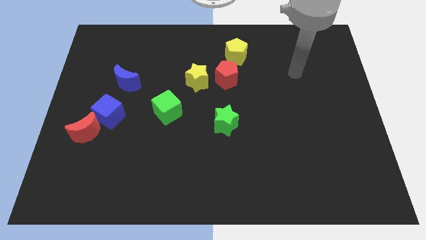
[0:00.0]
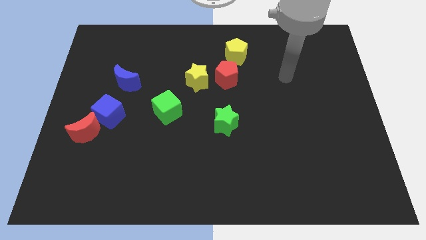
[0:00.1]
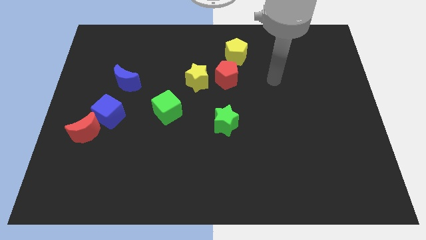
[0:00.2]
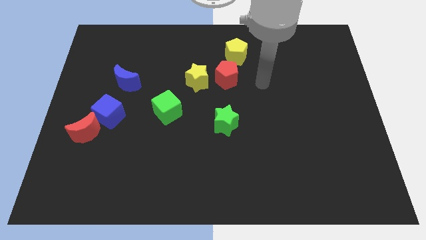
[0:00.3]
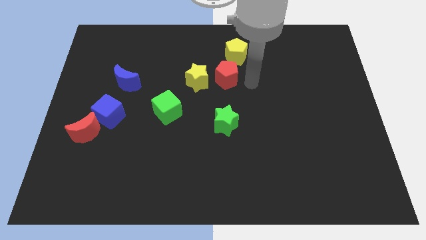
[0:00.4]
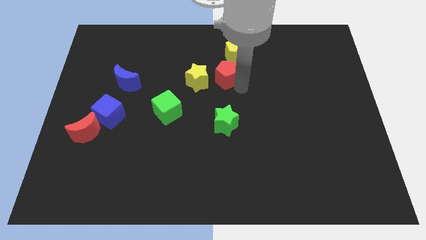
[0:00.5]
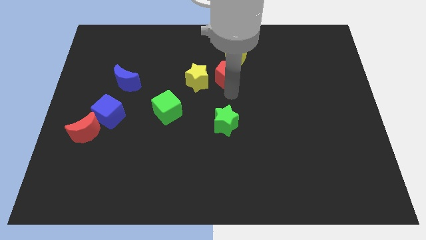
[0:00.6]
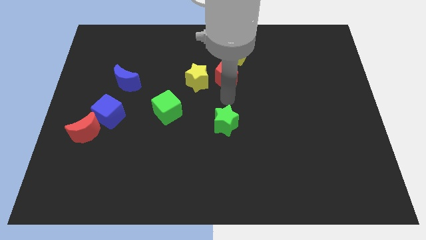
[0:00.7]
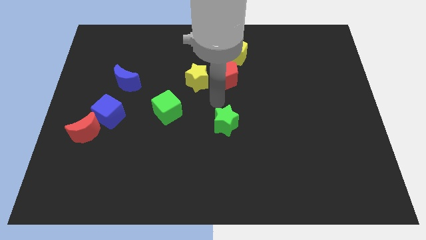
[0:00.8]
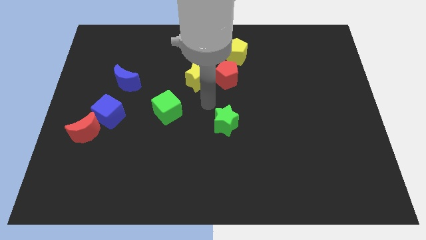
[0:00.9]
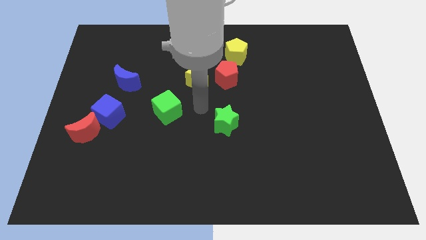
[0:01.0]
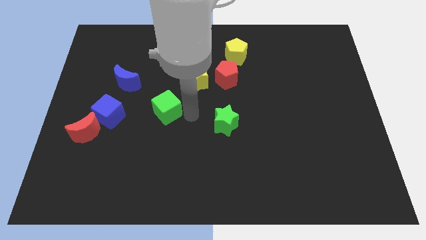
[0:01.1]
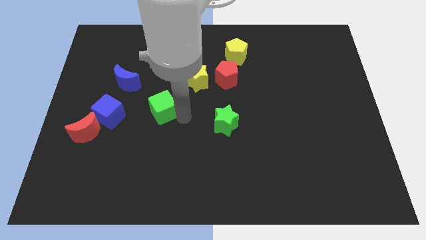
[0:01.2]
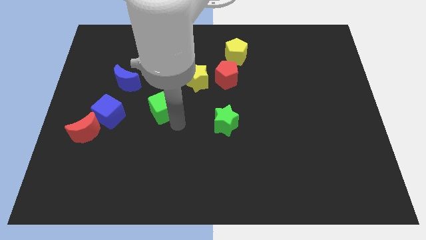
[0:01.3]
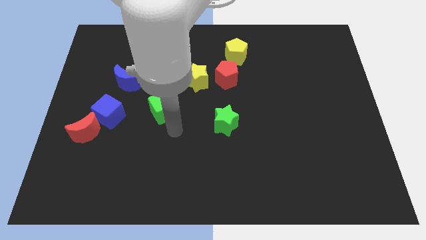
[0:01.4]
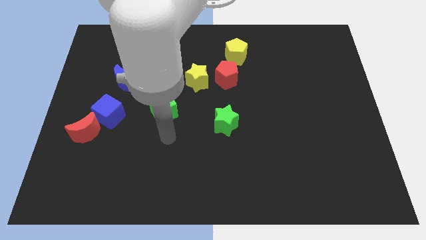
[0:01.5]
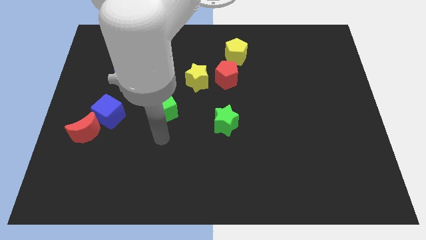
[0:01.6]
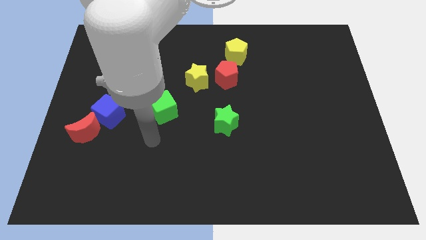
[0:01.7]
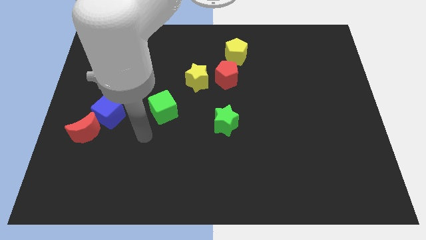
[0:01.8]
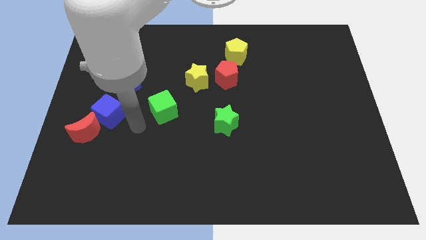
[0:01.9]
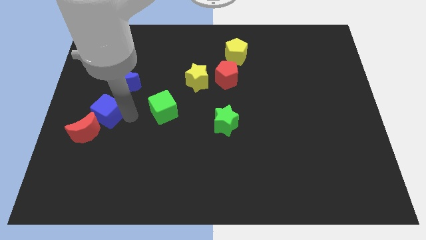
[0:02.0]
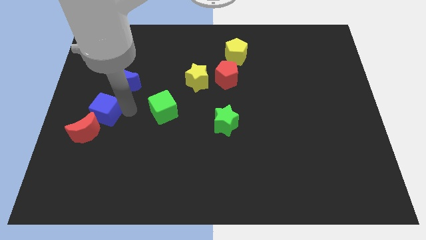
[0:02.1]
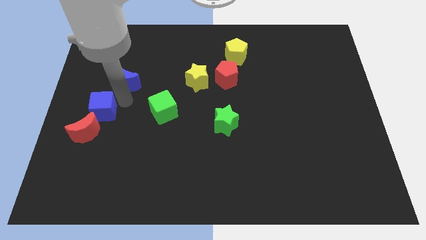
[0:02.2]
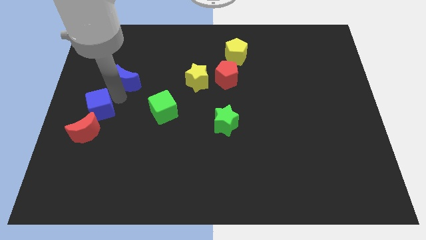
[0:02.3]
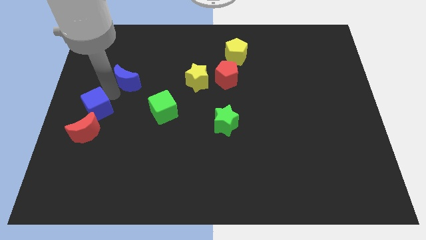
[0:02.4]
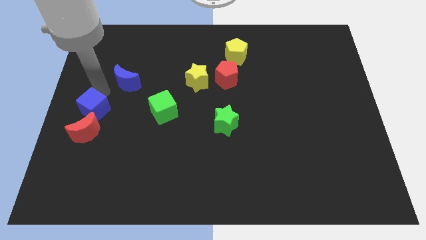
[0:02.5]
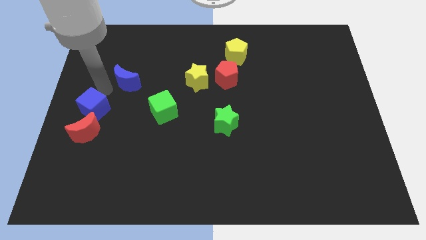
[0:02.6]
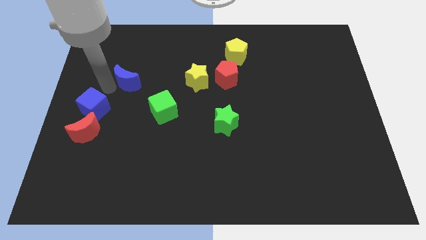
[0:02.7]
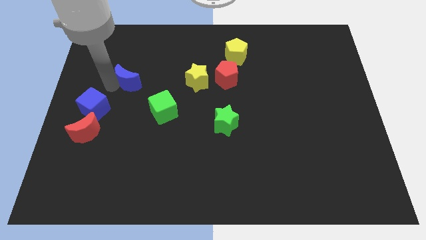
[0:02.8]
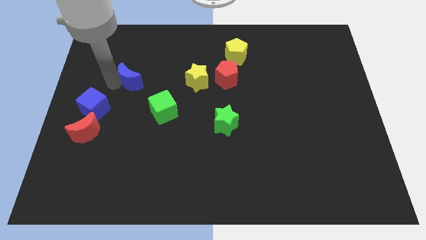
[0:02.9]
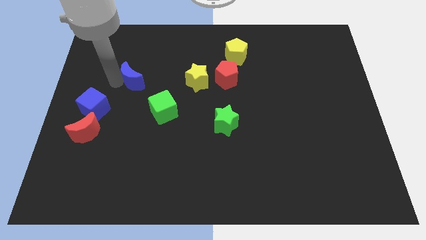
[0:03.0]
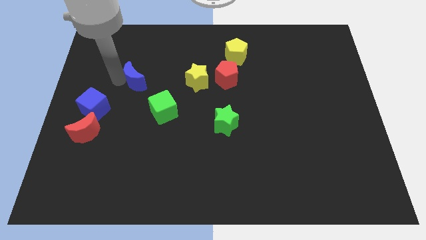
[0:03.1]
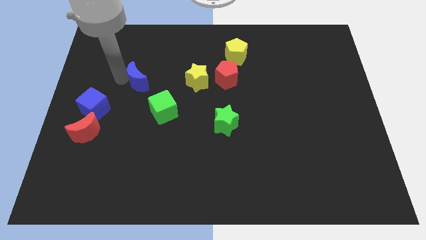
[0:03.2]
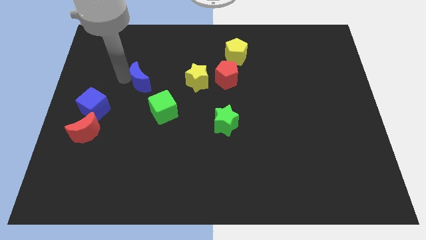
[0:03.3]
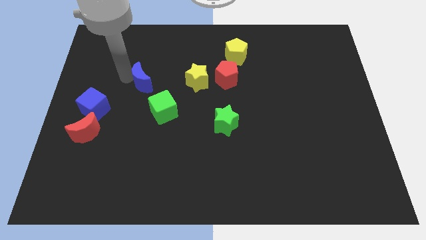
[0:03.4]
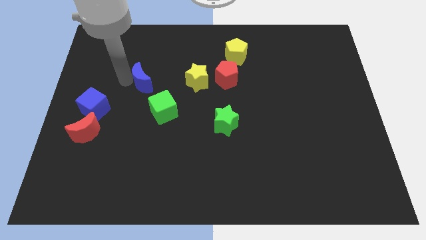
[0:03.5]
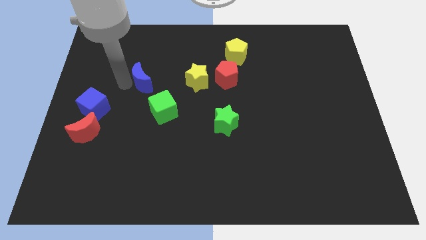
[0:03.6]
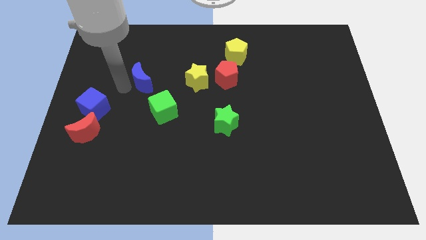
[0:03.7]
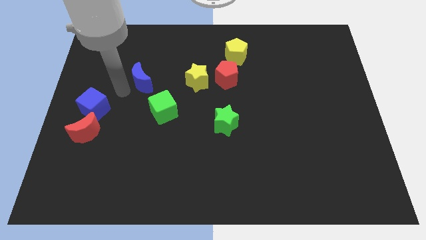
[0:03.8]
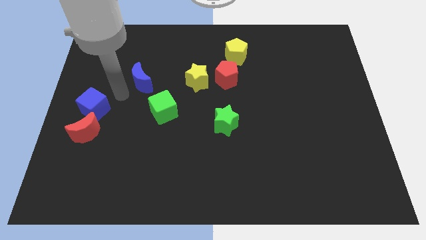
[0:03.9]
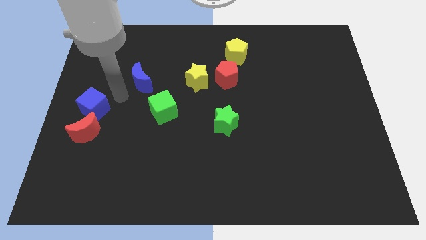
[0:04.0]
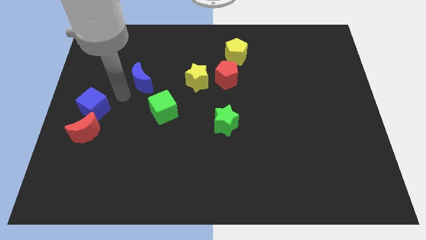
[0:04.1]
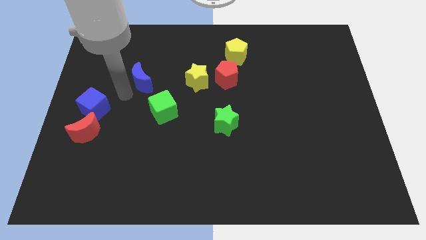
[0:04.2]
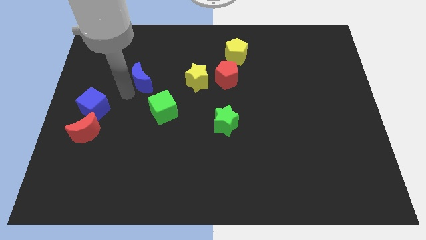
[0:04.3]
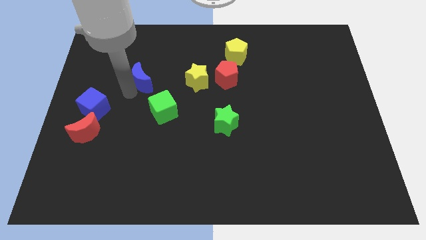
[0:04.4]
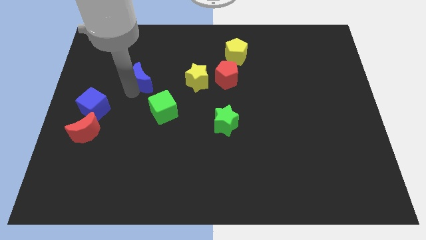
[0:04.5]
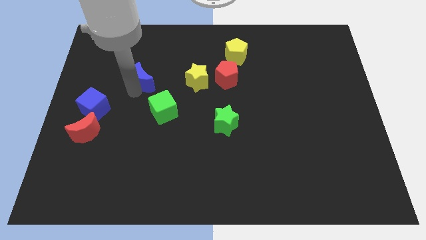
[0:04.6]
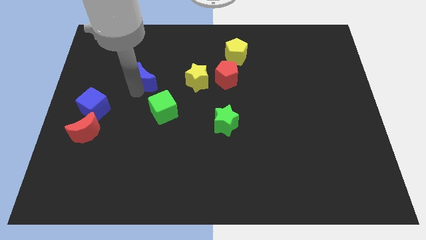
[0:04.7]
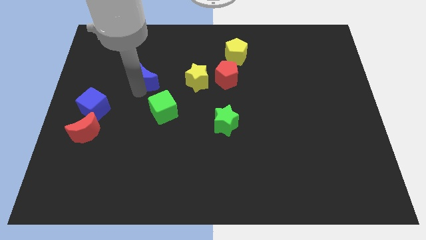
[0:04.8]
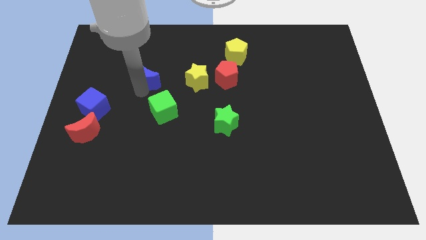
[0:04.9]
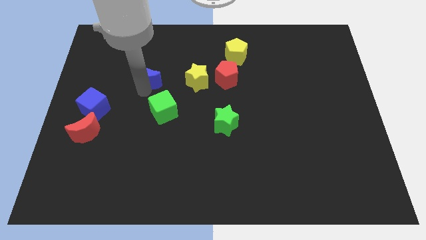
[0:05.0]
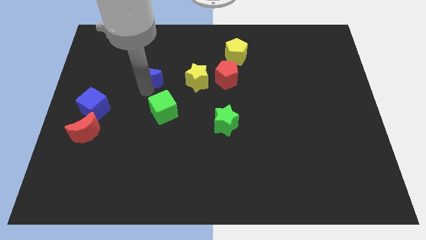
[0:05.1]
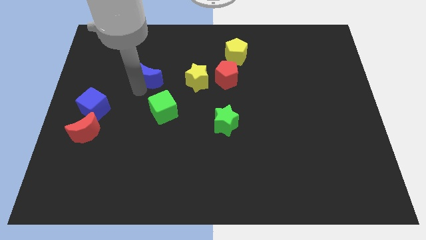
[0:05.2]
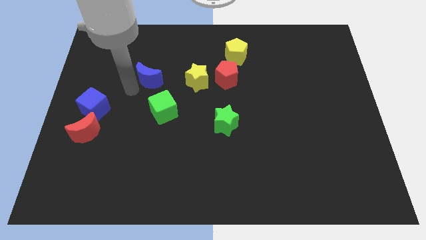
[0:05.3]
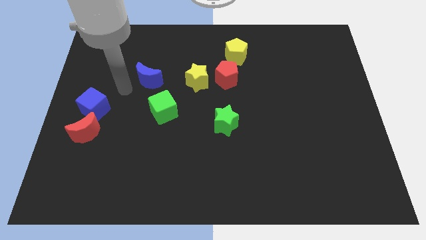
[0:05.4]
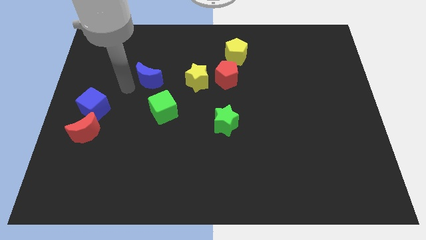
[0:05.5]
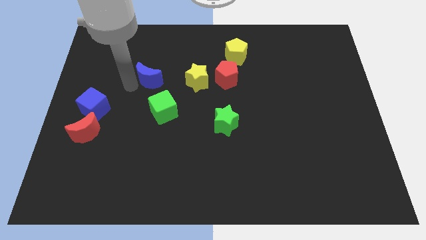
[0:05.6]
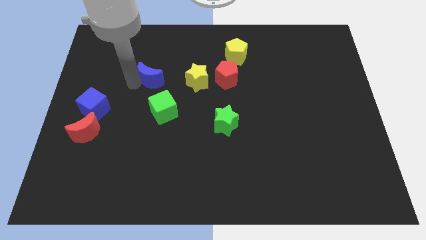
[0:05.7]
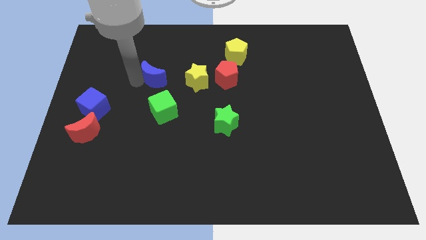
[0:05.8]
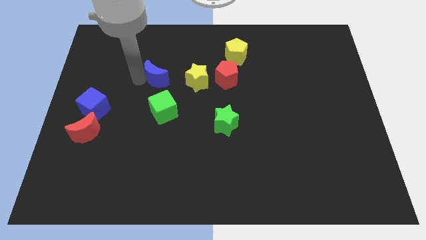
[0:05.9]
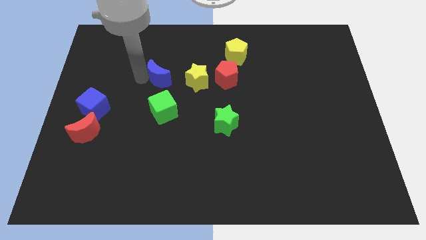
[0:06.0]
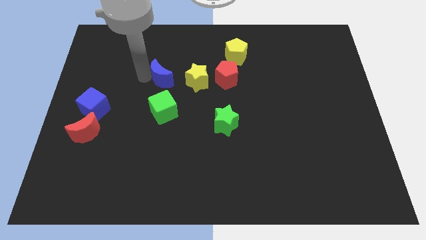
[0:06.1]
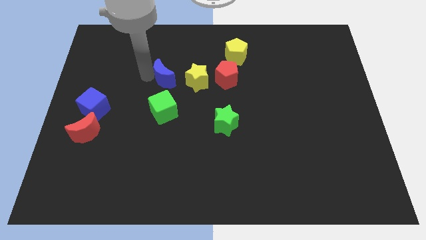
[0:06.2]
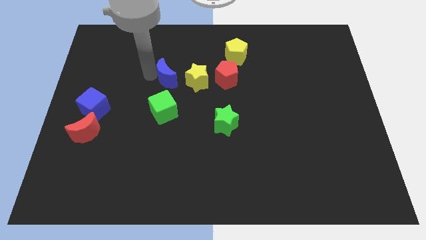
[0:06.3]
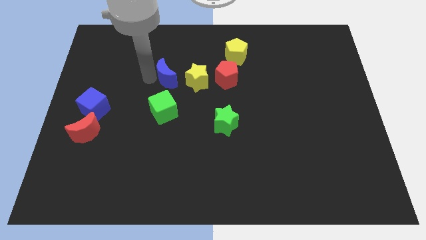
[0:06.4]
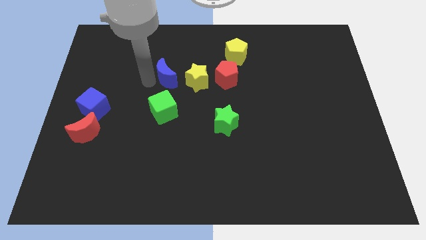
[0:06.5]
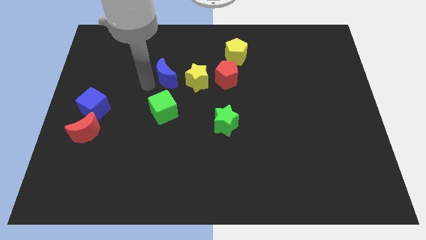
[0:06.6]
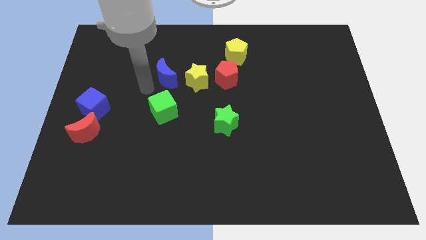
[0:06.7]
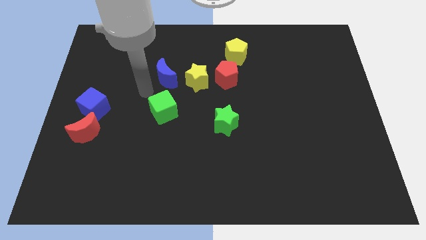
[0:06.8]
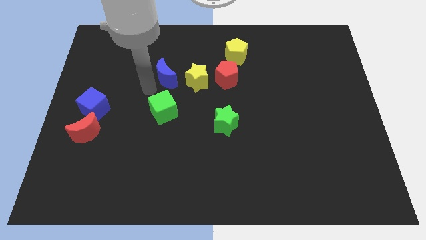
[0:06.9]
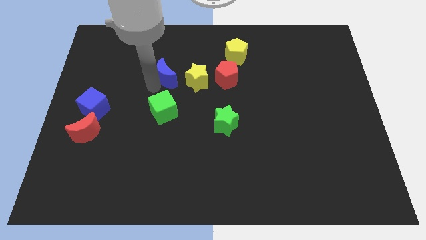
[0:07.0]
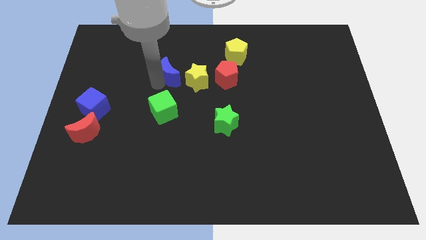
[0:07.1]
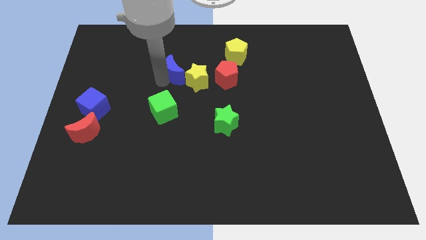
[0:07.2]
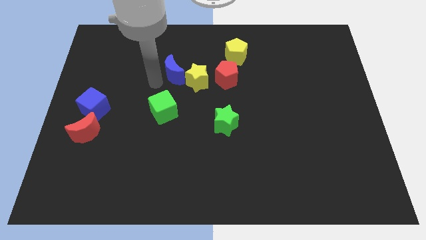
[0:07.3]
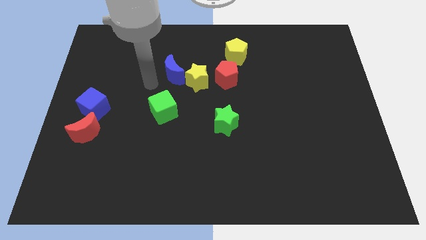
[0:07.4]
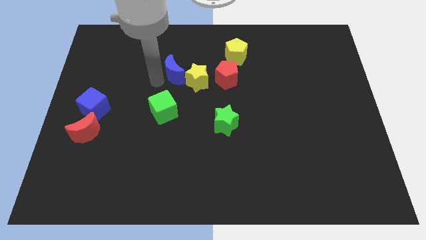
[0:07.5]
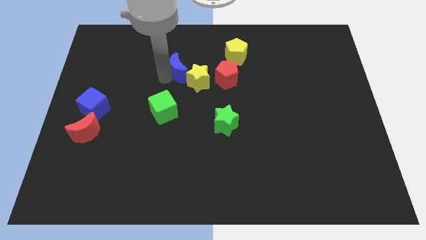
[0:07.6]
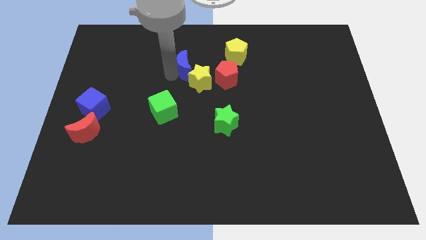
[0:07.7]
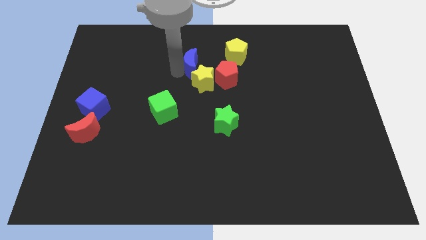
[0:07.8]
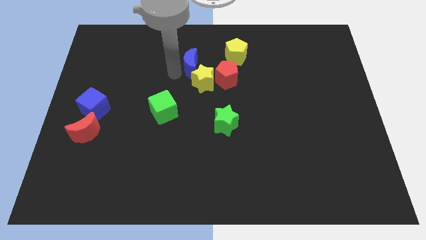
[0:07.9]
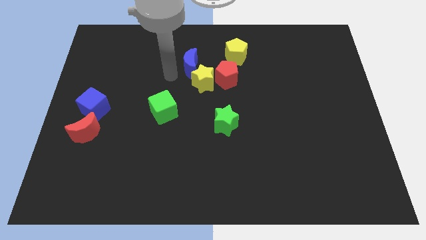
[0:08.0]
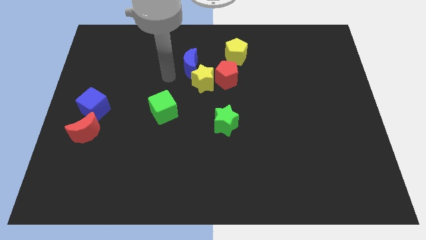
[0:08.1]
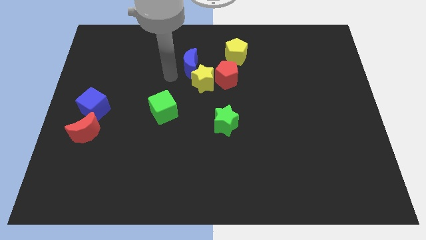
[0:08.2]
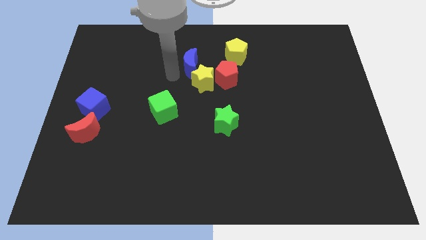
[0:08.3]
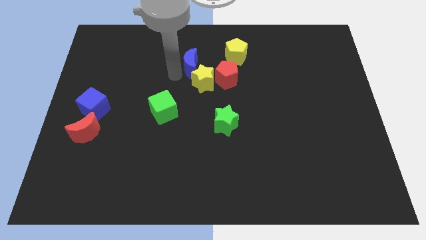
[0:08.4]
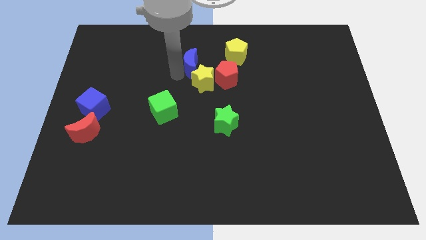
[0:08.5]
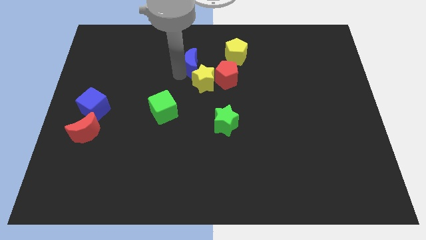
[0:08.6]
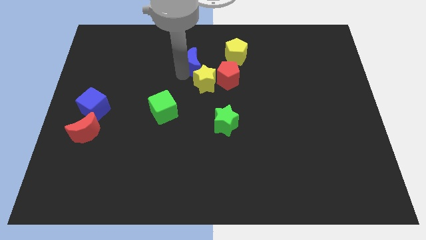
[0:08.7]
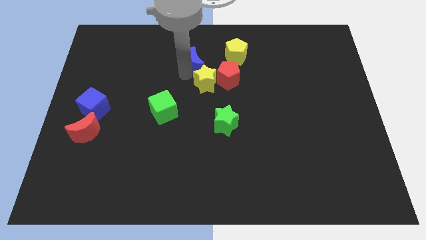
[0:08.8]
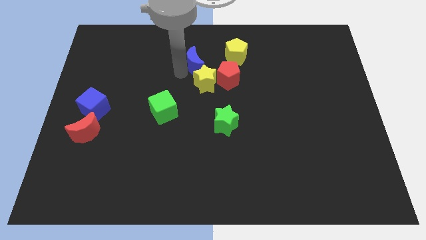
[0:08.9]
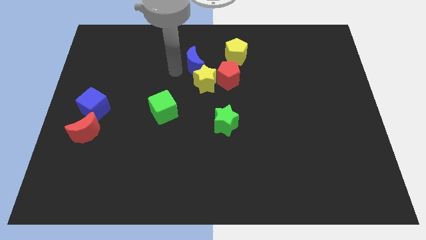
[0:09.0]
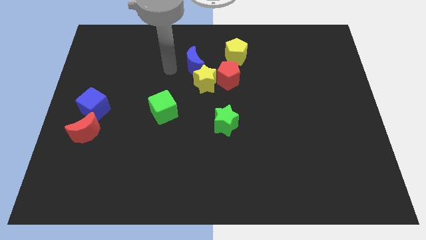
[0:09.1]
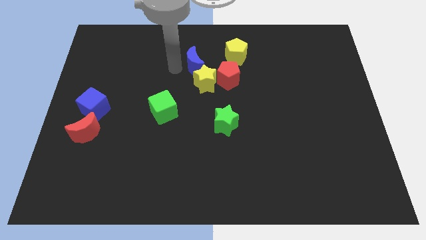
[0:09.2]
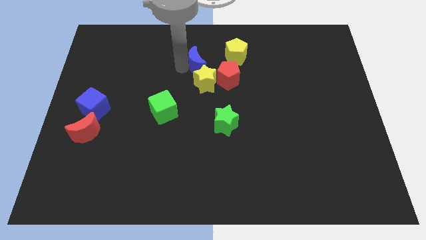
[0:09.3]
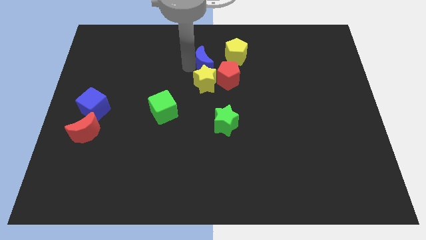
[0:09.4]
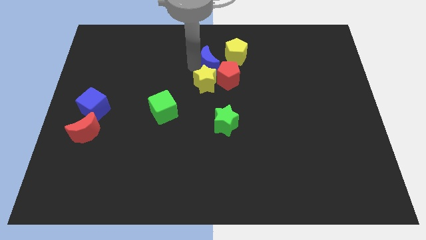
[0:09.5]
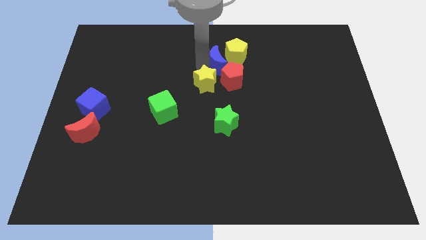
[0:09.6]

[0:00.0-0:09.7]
slide the blue moon next to the yellow pentagon
